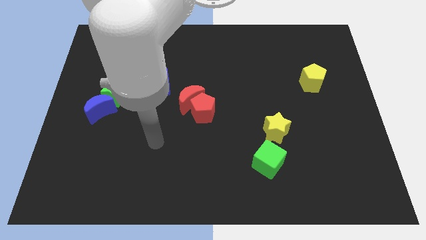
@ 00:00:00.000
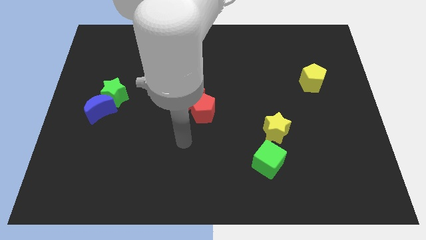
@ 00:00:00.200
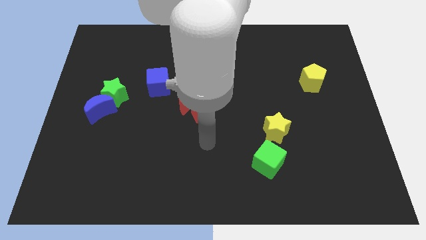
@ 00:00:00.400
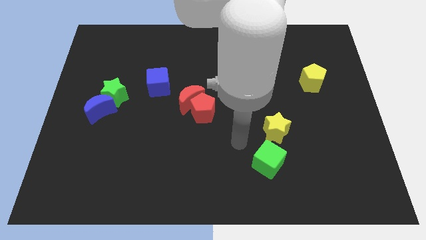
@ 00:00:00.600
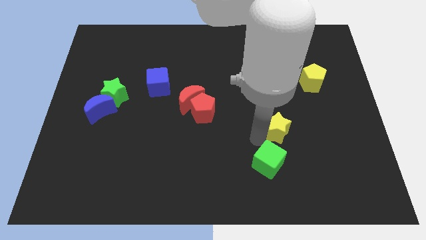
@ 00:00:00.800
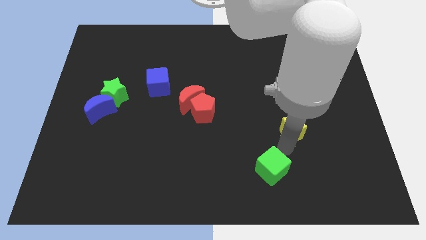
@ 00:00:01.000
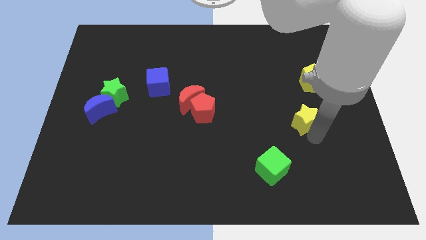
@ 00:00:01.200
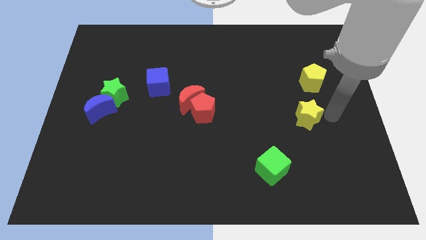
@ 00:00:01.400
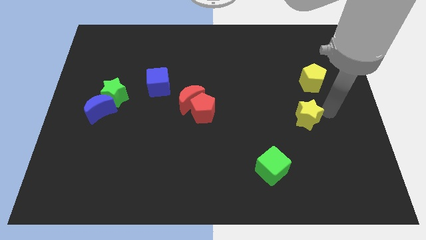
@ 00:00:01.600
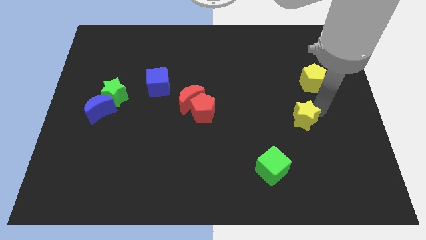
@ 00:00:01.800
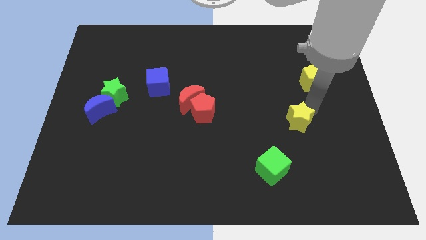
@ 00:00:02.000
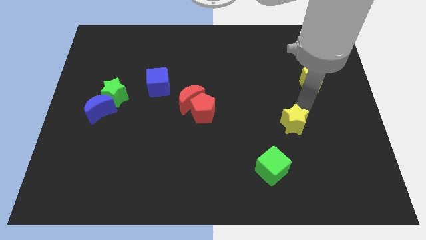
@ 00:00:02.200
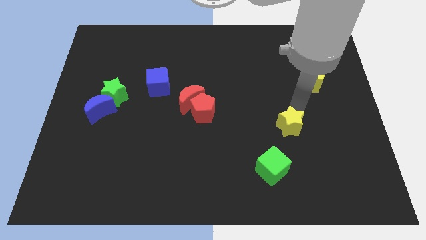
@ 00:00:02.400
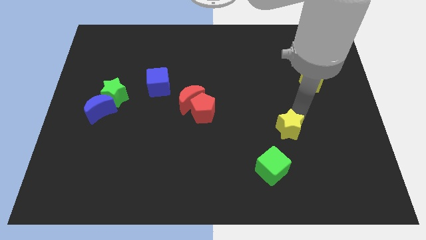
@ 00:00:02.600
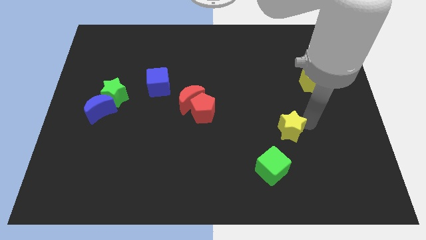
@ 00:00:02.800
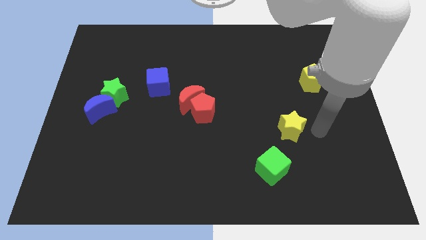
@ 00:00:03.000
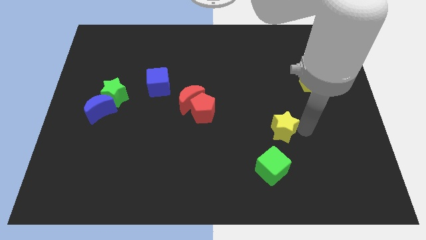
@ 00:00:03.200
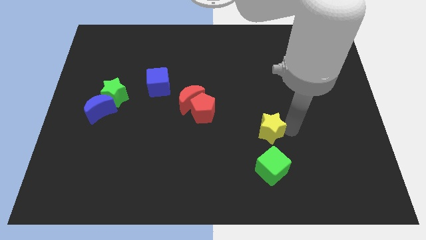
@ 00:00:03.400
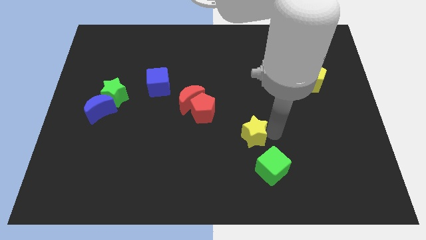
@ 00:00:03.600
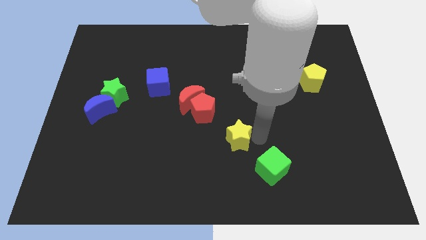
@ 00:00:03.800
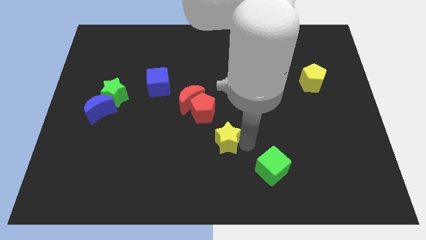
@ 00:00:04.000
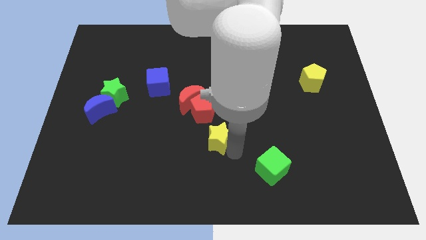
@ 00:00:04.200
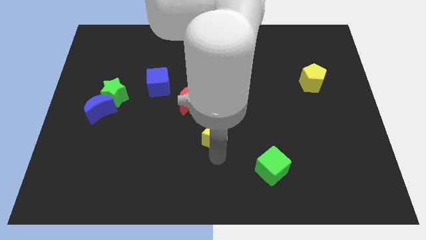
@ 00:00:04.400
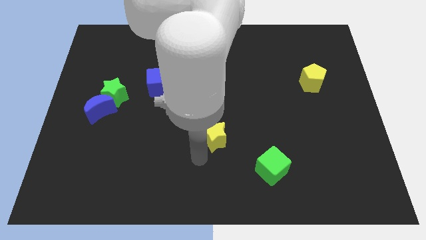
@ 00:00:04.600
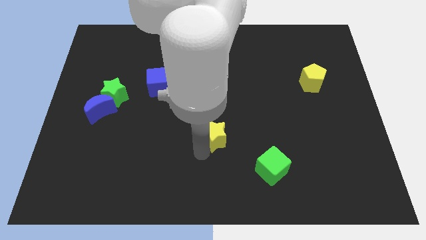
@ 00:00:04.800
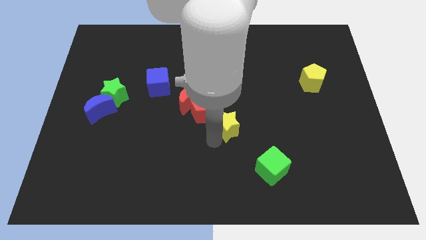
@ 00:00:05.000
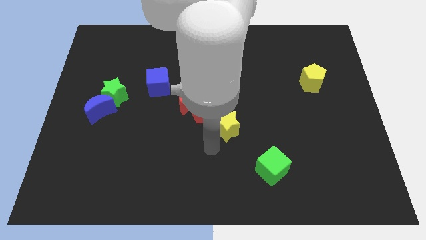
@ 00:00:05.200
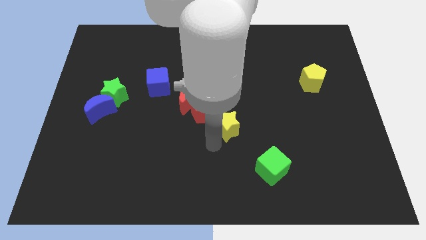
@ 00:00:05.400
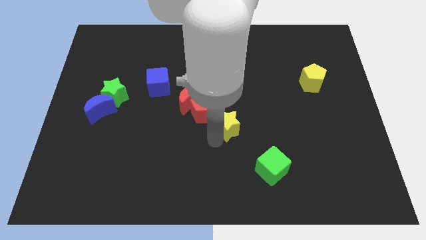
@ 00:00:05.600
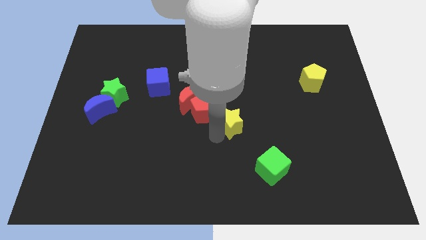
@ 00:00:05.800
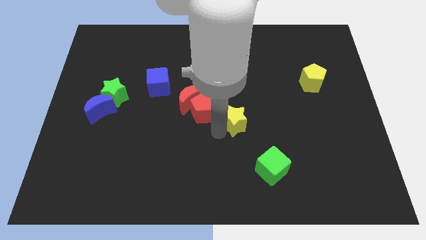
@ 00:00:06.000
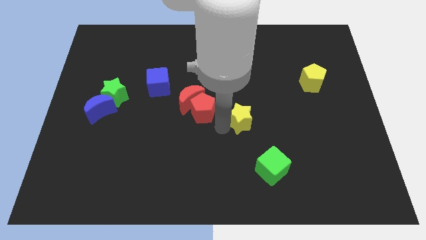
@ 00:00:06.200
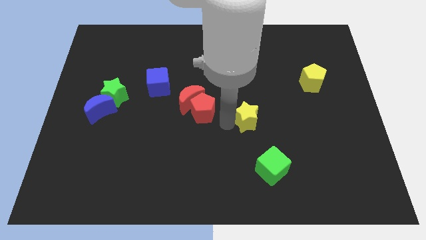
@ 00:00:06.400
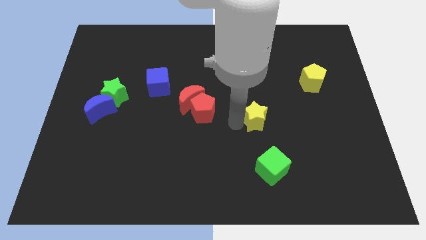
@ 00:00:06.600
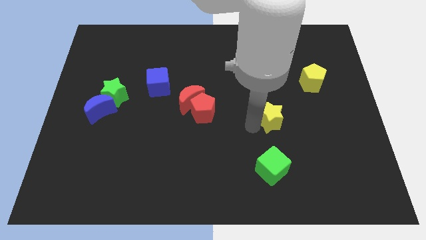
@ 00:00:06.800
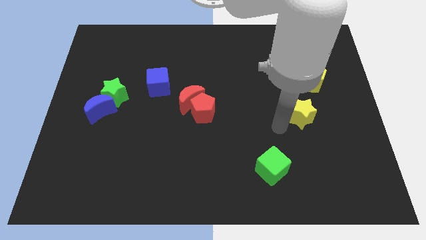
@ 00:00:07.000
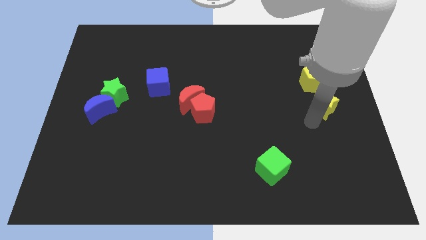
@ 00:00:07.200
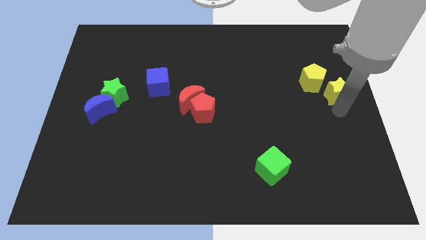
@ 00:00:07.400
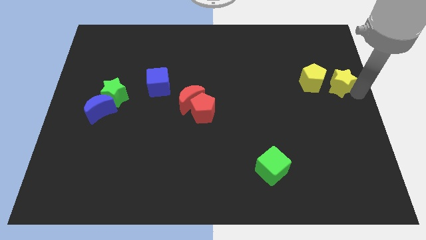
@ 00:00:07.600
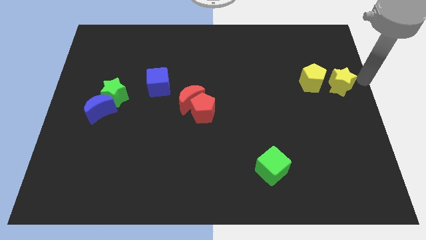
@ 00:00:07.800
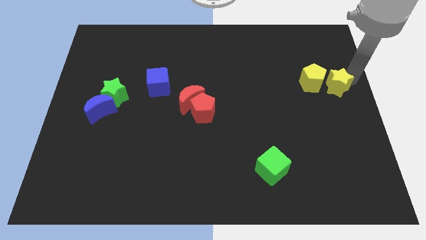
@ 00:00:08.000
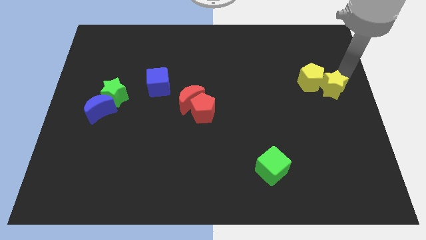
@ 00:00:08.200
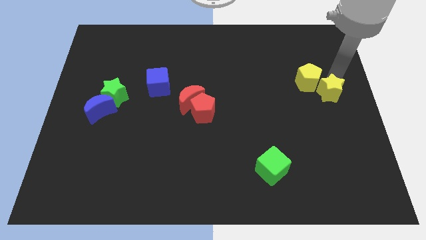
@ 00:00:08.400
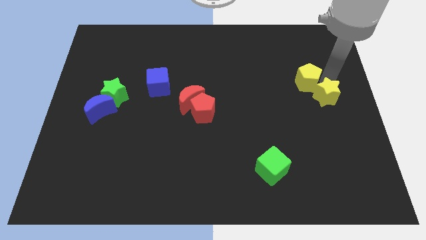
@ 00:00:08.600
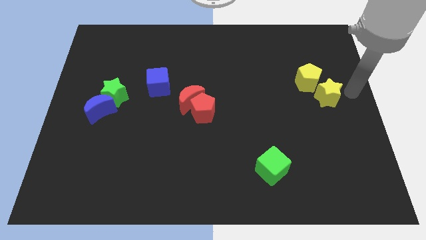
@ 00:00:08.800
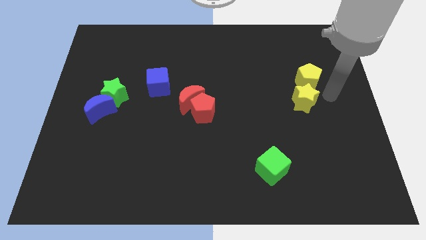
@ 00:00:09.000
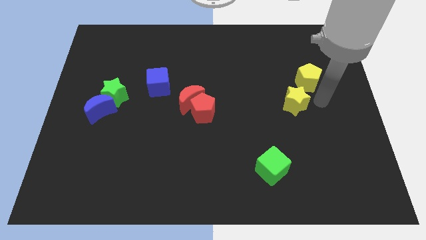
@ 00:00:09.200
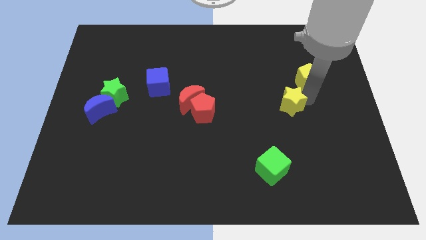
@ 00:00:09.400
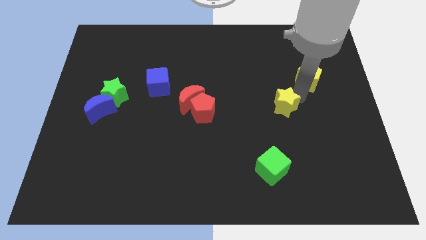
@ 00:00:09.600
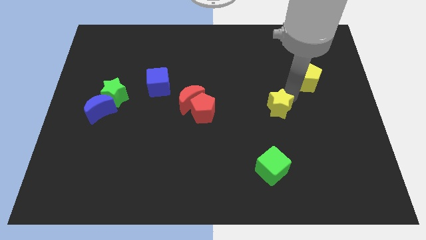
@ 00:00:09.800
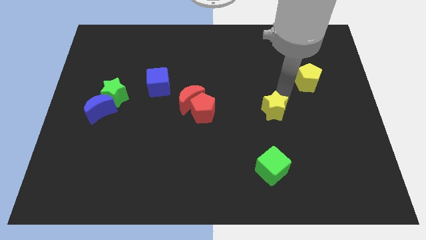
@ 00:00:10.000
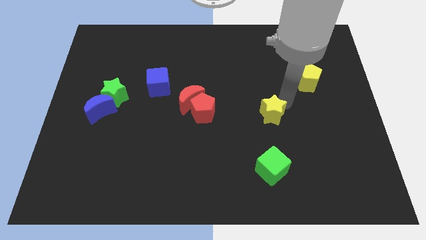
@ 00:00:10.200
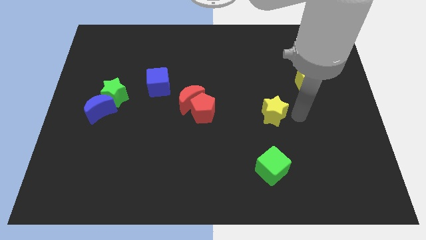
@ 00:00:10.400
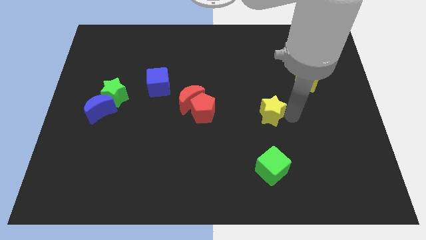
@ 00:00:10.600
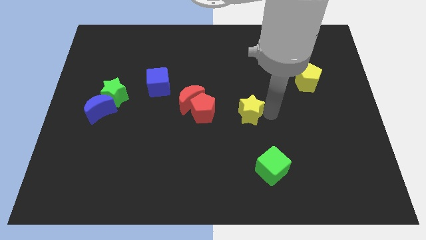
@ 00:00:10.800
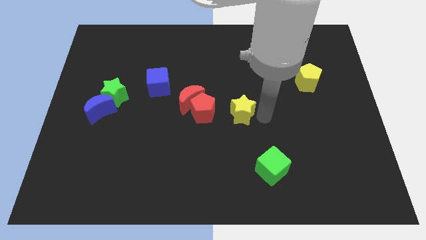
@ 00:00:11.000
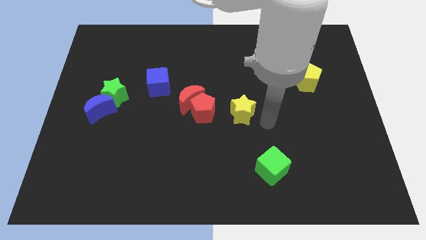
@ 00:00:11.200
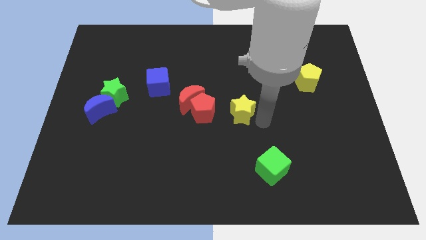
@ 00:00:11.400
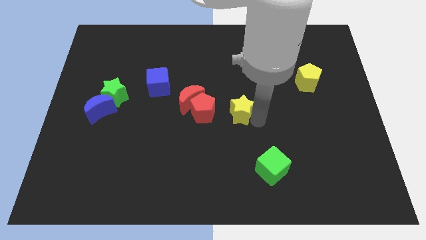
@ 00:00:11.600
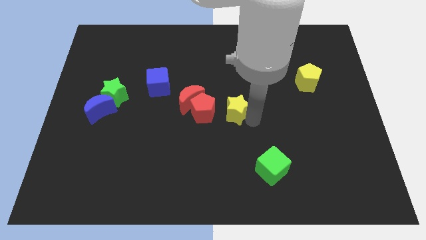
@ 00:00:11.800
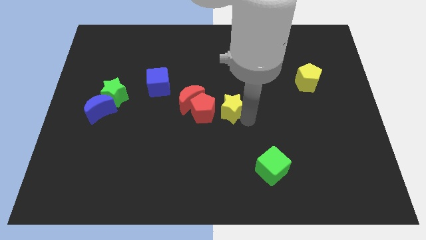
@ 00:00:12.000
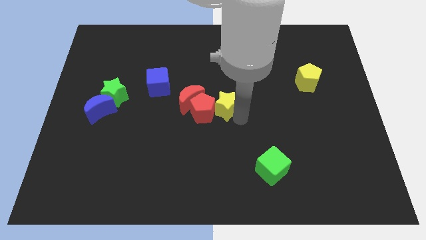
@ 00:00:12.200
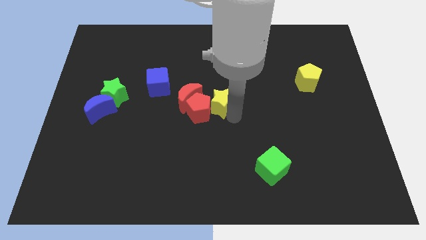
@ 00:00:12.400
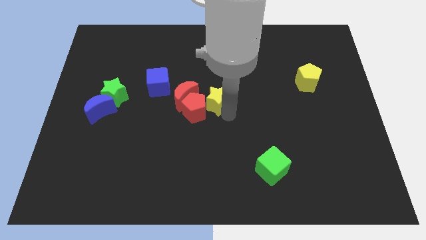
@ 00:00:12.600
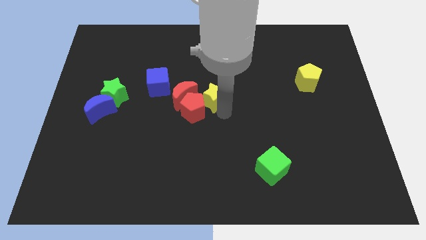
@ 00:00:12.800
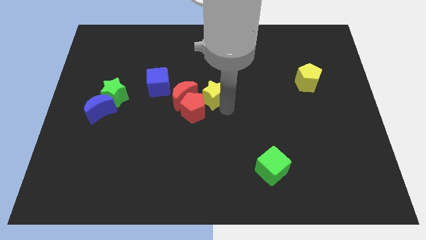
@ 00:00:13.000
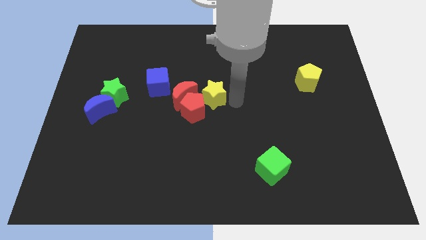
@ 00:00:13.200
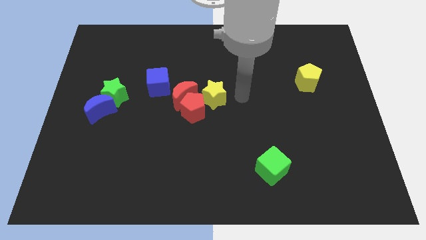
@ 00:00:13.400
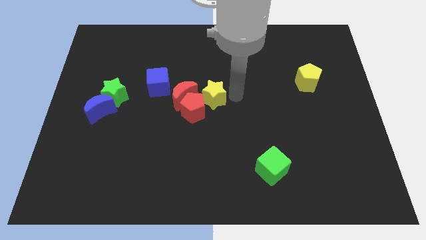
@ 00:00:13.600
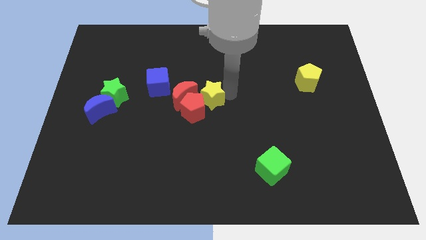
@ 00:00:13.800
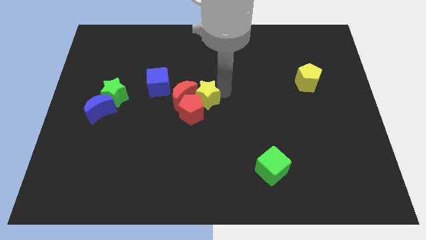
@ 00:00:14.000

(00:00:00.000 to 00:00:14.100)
push the yellow star next to the red moon
